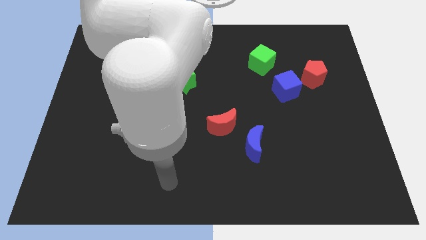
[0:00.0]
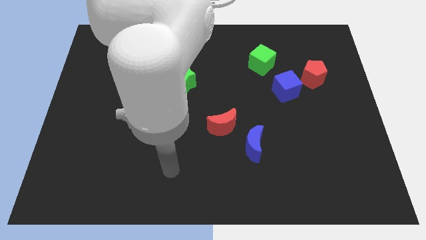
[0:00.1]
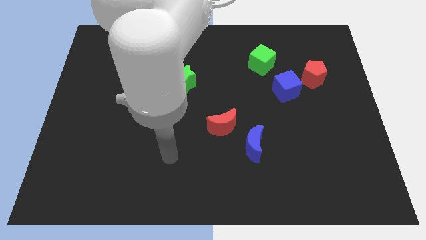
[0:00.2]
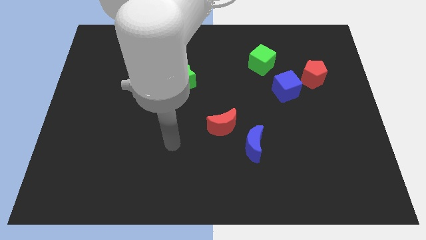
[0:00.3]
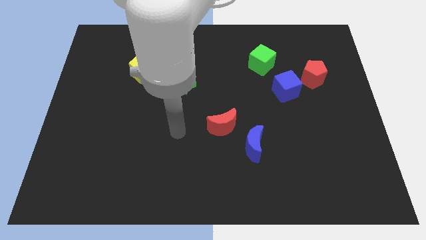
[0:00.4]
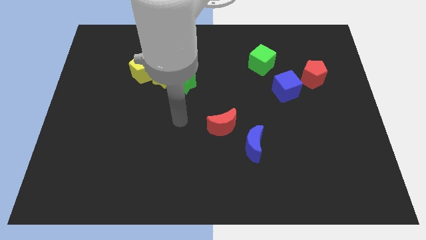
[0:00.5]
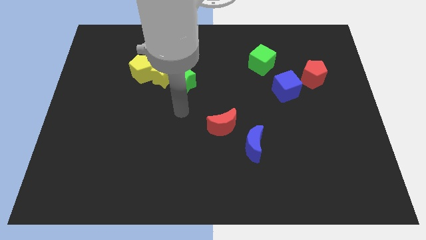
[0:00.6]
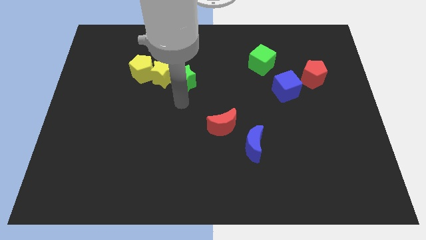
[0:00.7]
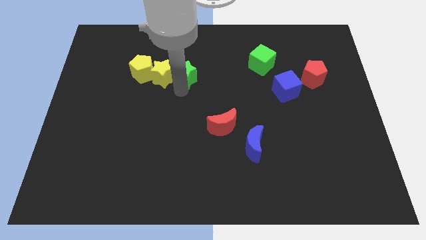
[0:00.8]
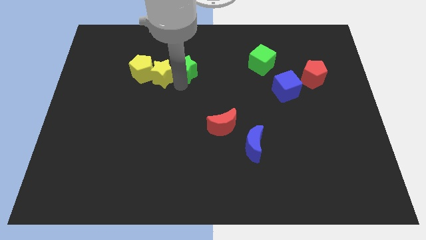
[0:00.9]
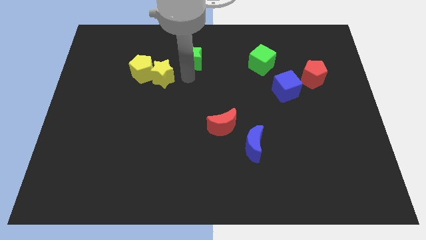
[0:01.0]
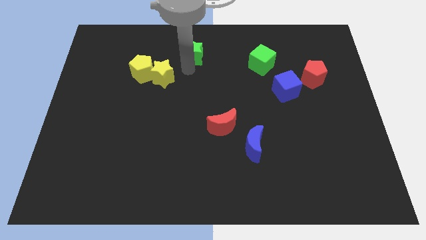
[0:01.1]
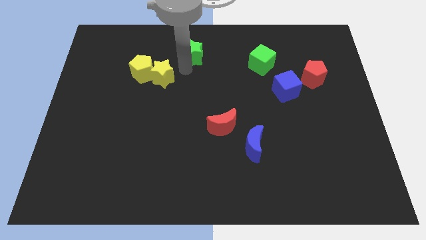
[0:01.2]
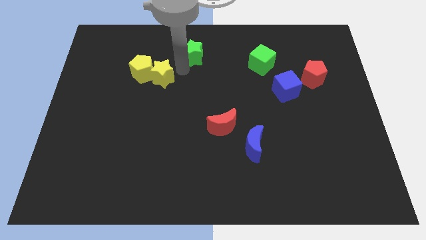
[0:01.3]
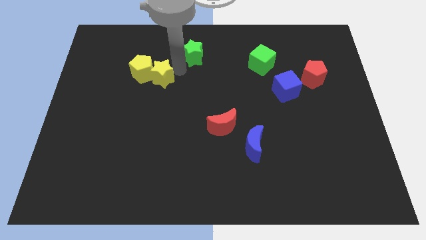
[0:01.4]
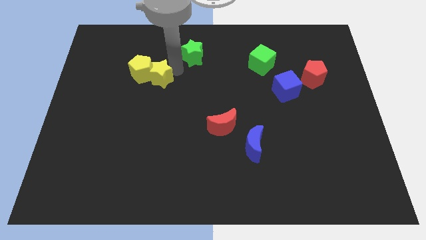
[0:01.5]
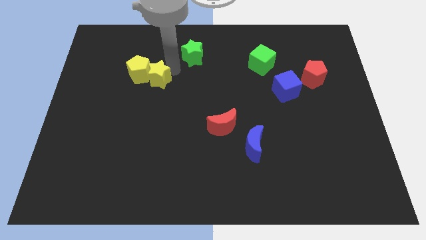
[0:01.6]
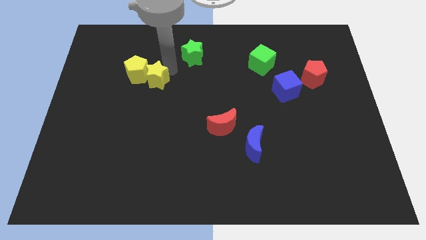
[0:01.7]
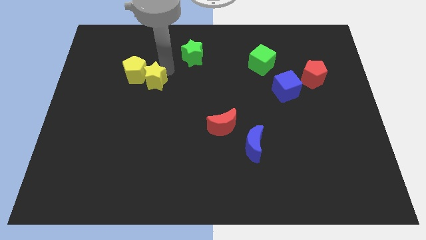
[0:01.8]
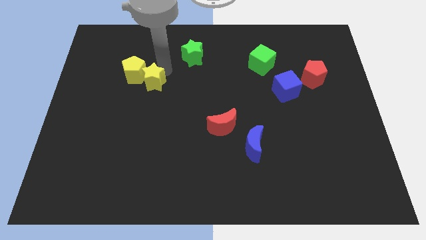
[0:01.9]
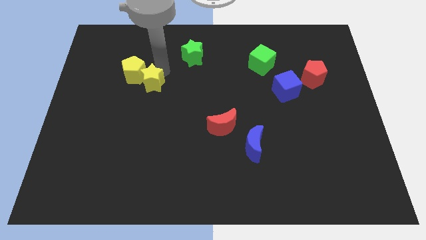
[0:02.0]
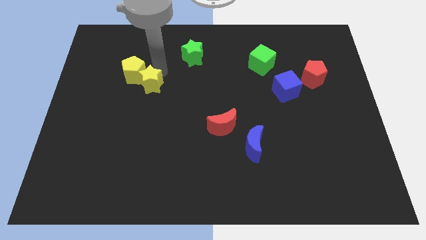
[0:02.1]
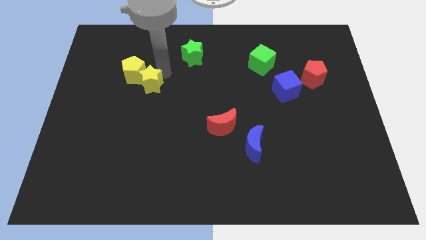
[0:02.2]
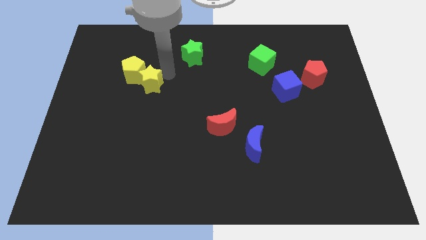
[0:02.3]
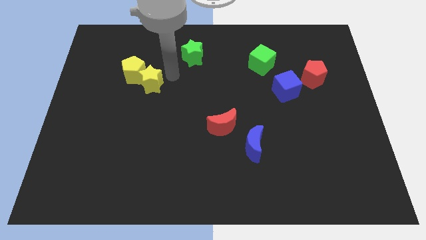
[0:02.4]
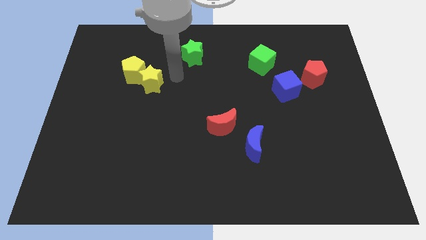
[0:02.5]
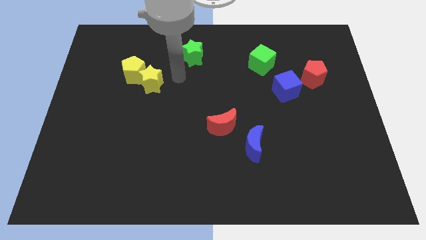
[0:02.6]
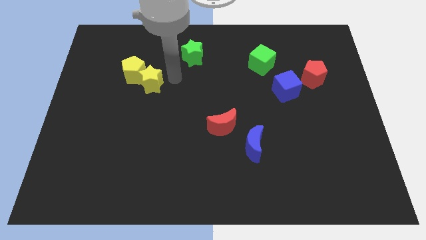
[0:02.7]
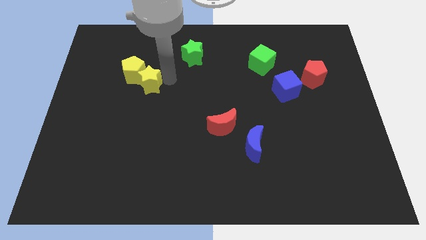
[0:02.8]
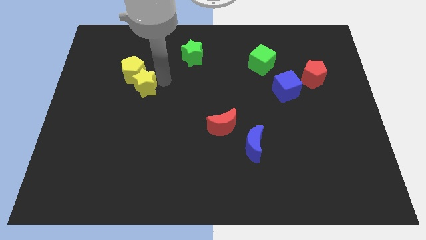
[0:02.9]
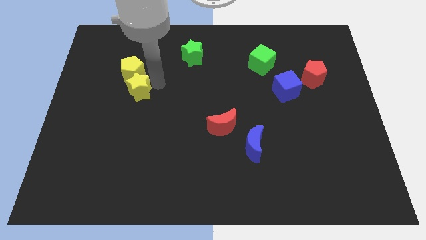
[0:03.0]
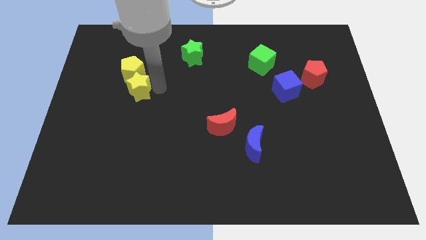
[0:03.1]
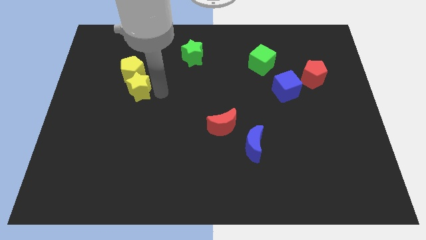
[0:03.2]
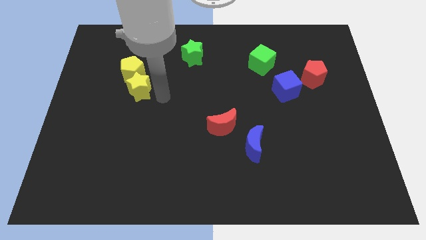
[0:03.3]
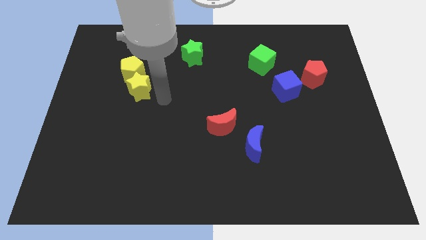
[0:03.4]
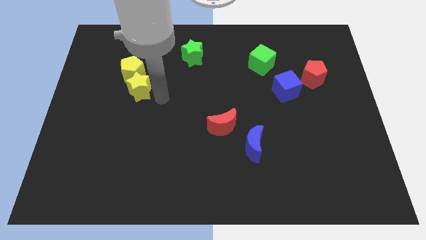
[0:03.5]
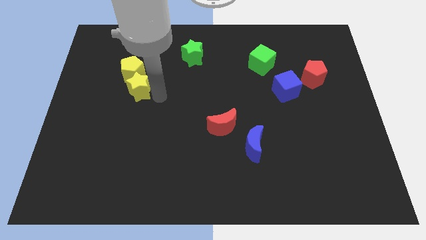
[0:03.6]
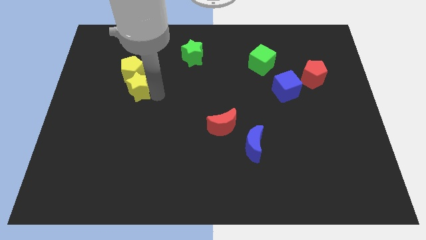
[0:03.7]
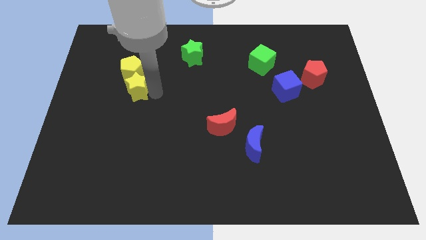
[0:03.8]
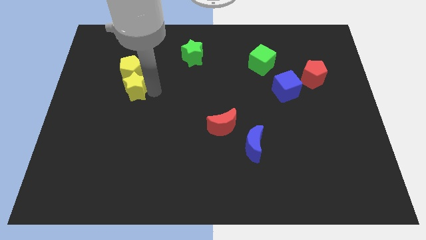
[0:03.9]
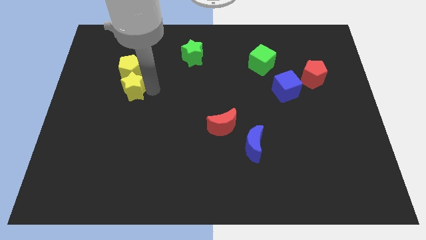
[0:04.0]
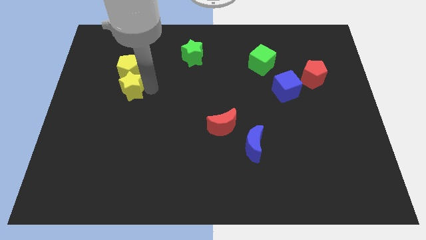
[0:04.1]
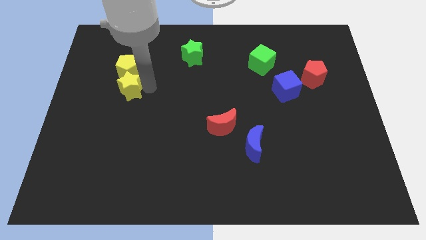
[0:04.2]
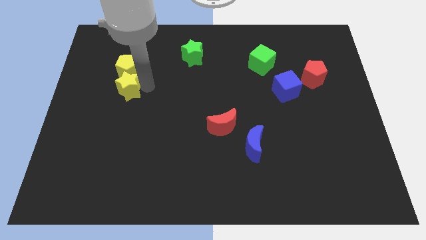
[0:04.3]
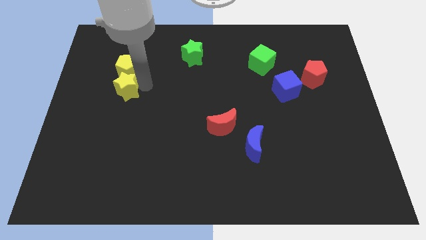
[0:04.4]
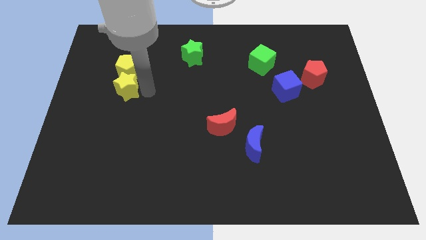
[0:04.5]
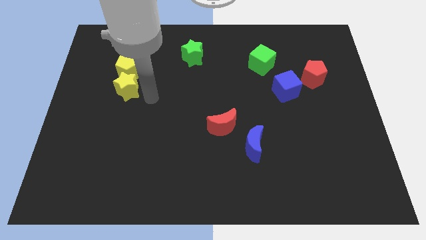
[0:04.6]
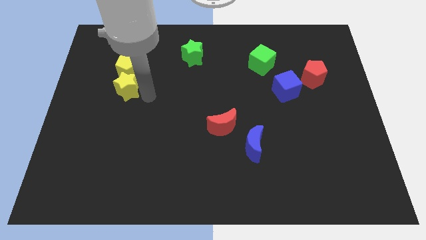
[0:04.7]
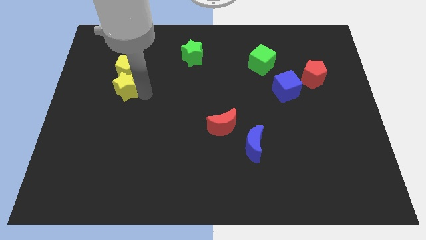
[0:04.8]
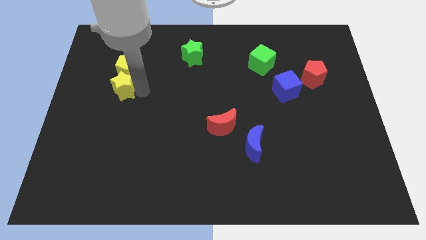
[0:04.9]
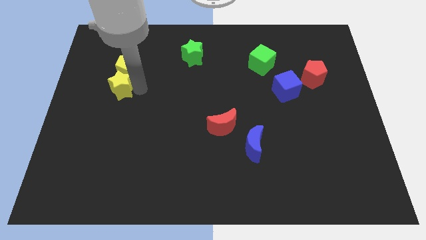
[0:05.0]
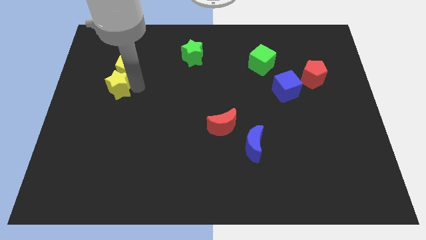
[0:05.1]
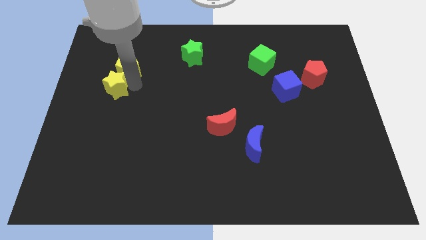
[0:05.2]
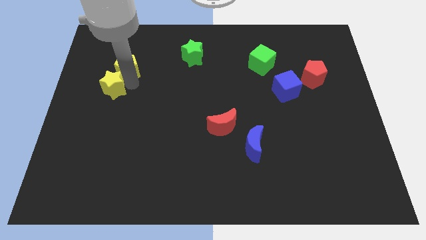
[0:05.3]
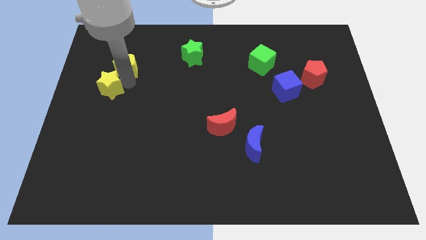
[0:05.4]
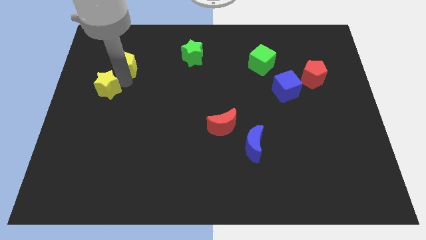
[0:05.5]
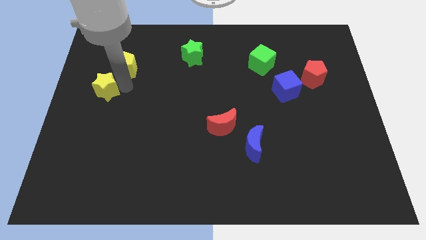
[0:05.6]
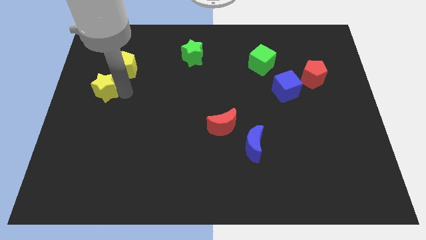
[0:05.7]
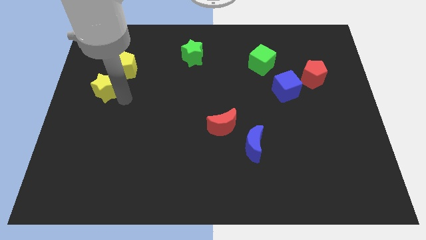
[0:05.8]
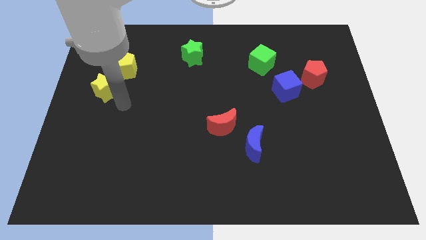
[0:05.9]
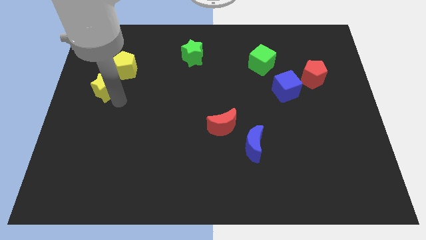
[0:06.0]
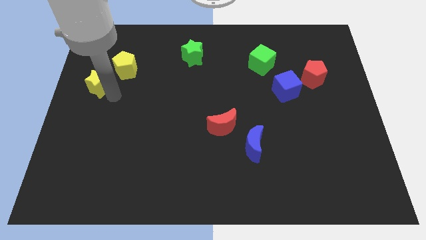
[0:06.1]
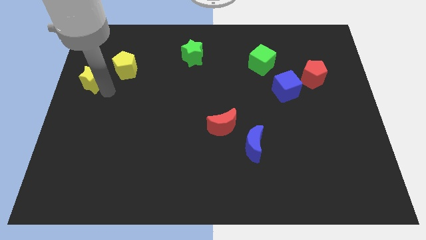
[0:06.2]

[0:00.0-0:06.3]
slide the yellow star left of the yellow pentagon

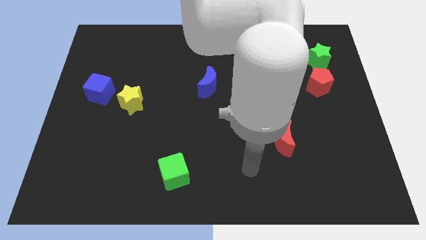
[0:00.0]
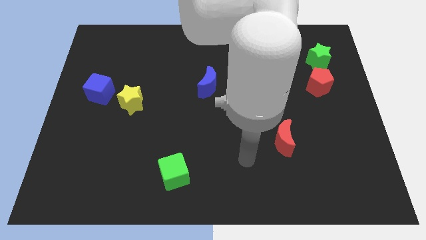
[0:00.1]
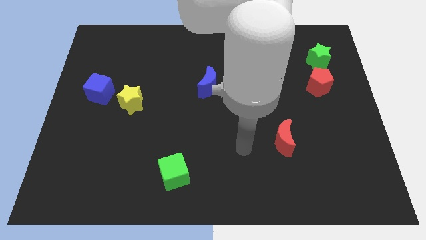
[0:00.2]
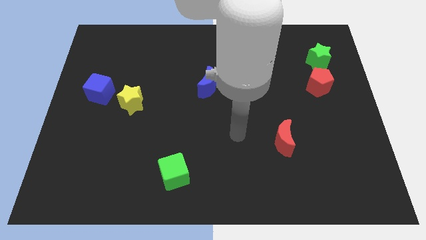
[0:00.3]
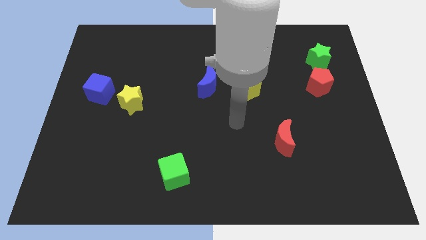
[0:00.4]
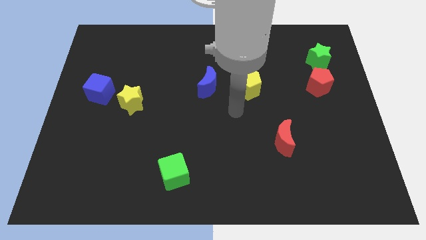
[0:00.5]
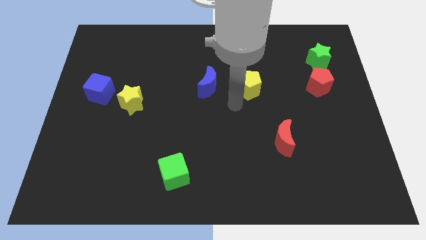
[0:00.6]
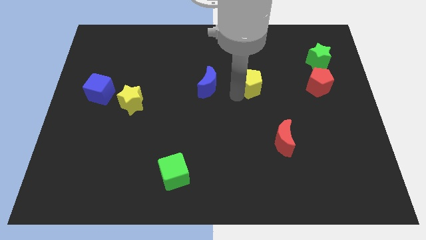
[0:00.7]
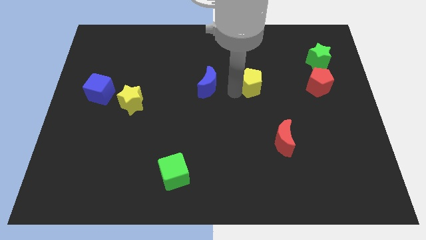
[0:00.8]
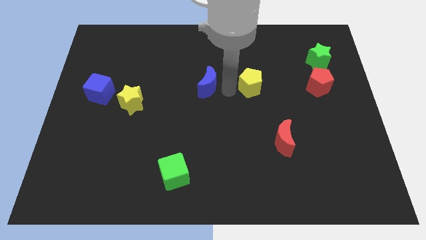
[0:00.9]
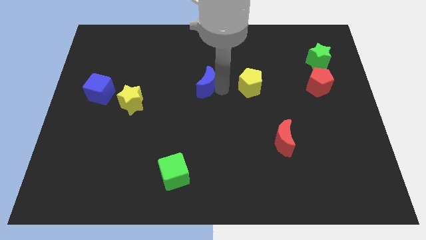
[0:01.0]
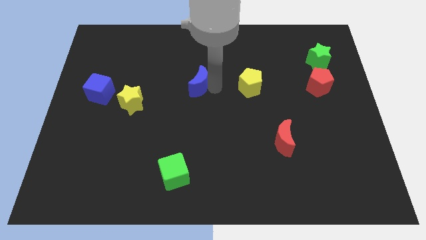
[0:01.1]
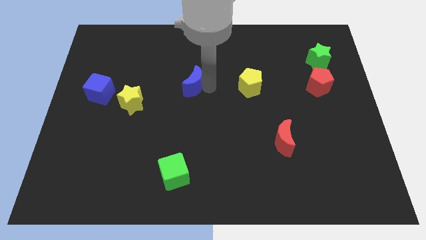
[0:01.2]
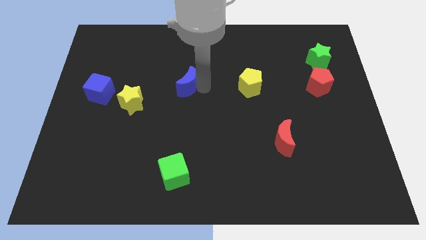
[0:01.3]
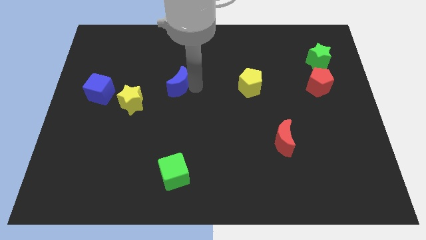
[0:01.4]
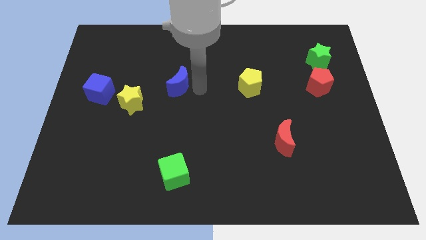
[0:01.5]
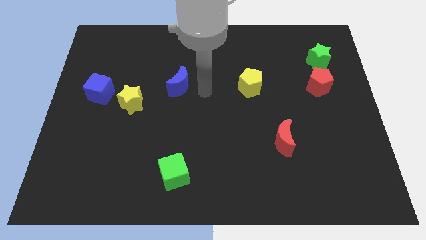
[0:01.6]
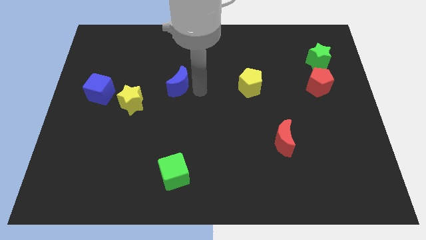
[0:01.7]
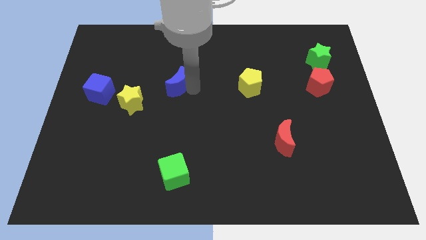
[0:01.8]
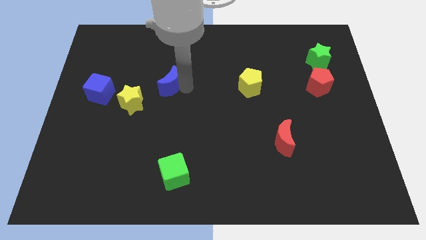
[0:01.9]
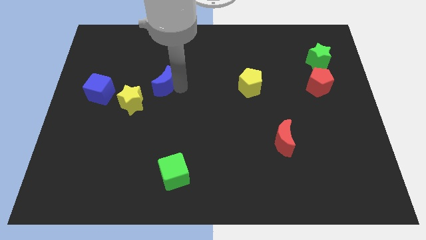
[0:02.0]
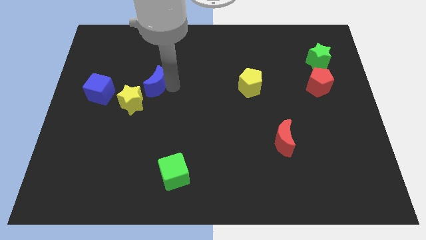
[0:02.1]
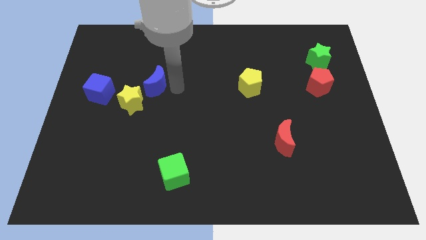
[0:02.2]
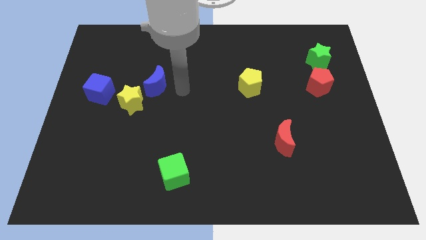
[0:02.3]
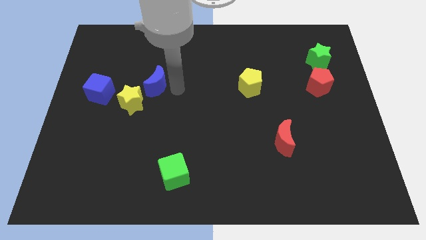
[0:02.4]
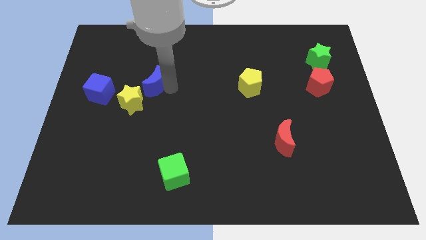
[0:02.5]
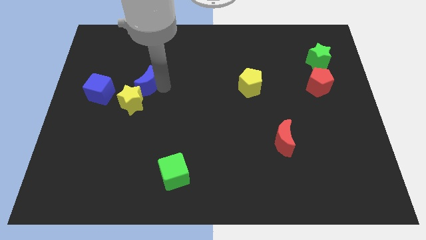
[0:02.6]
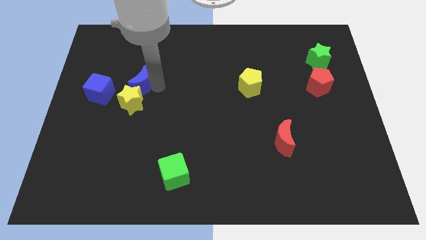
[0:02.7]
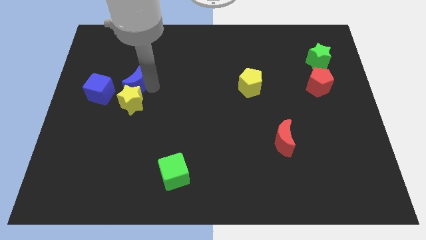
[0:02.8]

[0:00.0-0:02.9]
push the blue moon diagonally up and to the left of the yellow star
